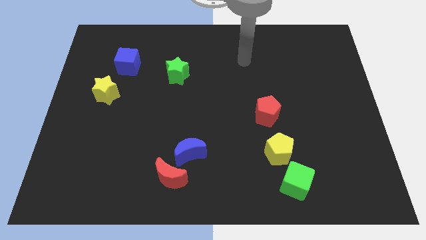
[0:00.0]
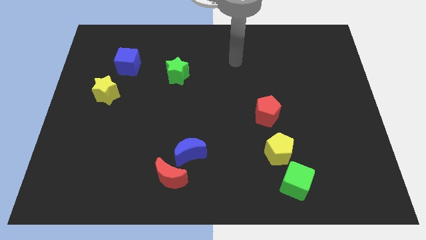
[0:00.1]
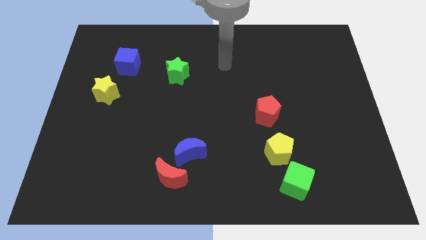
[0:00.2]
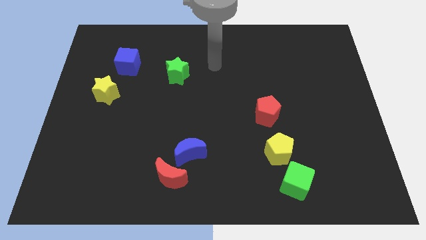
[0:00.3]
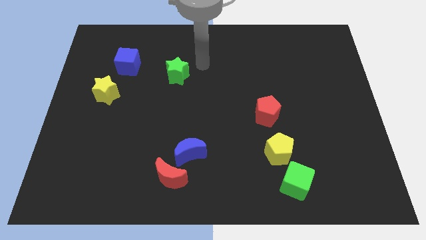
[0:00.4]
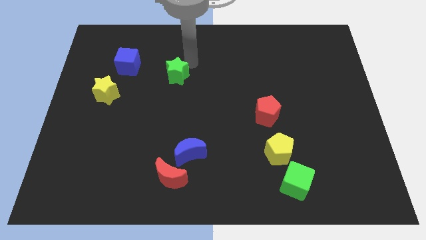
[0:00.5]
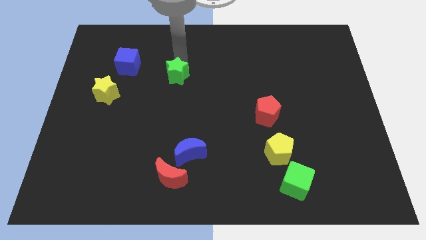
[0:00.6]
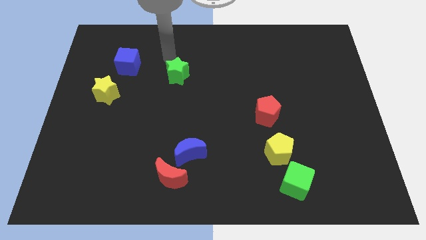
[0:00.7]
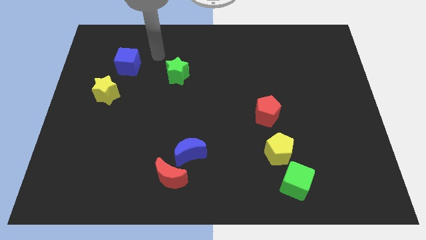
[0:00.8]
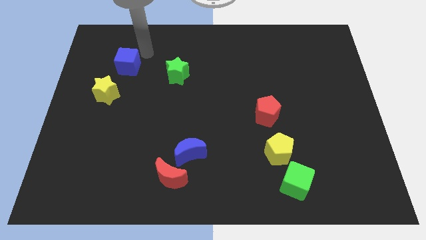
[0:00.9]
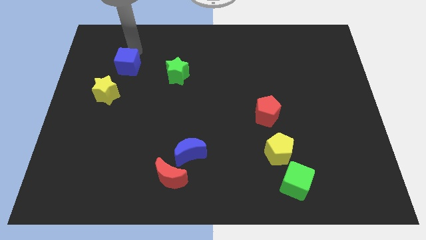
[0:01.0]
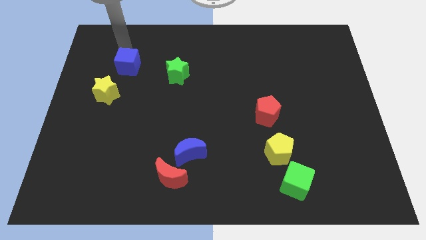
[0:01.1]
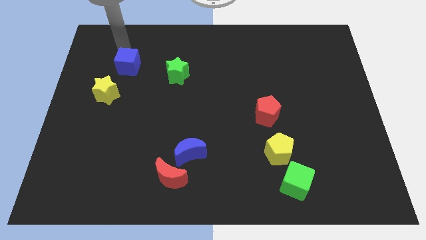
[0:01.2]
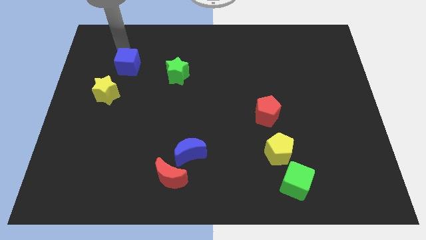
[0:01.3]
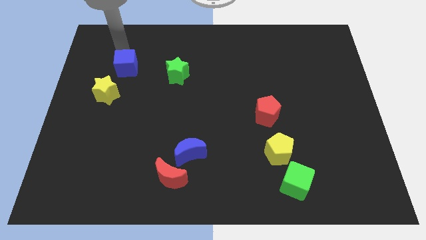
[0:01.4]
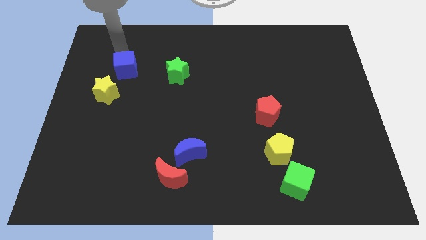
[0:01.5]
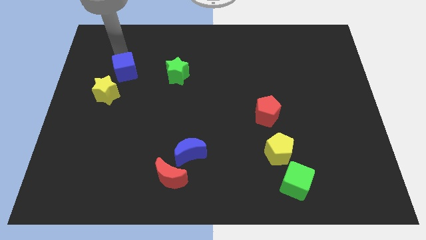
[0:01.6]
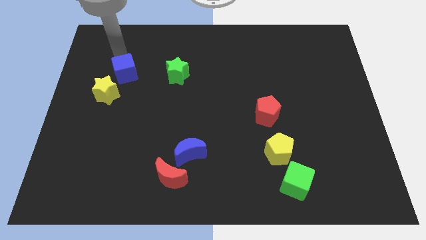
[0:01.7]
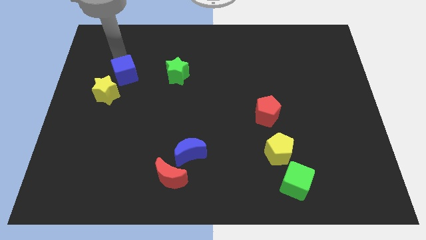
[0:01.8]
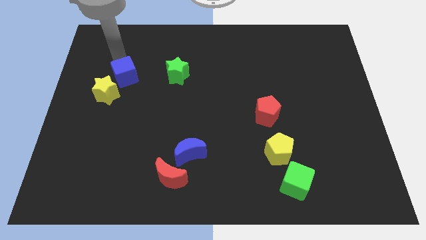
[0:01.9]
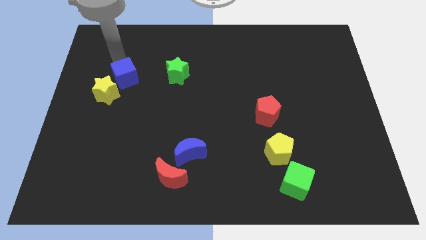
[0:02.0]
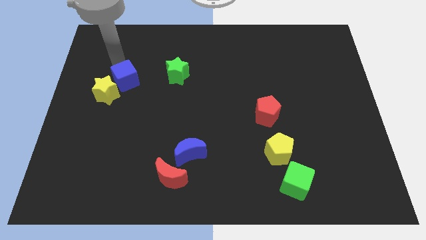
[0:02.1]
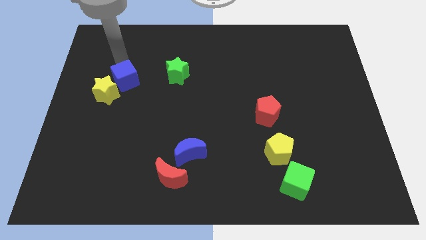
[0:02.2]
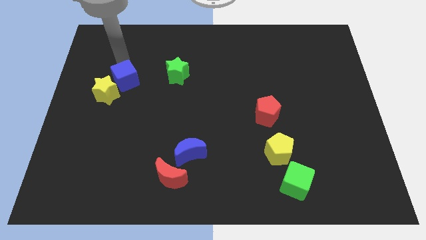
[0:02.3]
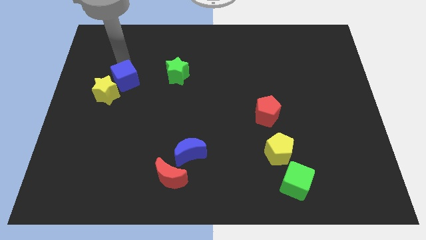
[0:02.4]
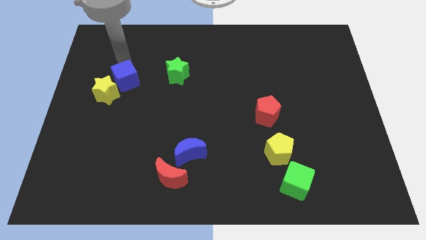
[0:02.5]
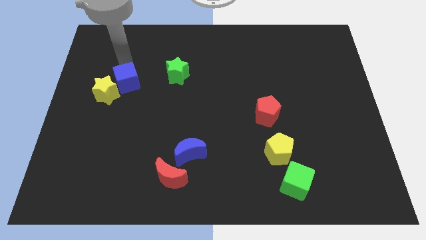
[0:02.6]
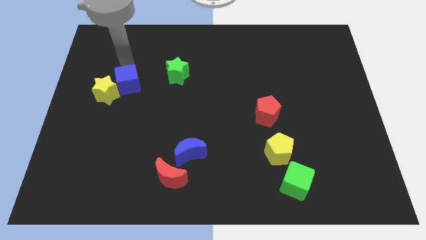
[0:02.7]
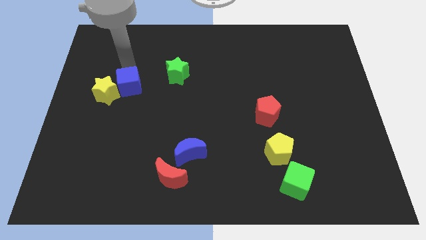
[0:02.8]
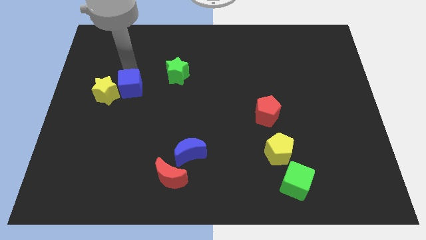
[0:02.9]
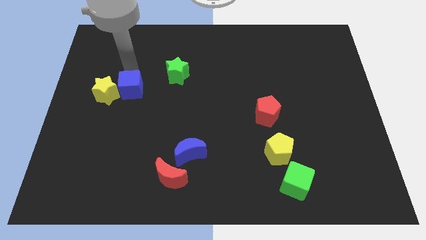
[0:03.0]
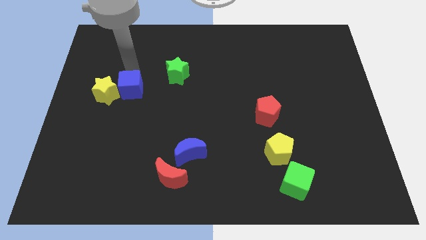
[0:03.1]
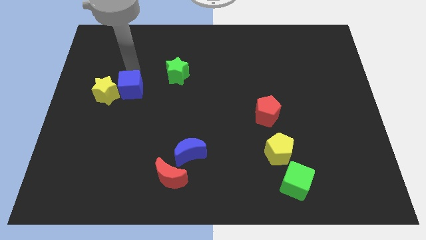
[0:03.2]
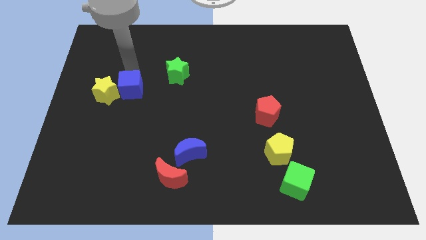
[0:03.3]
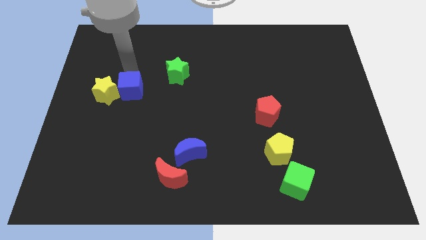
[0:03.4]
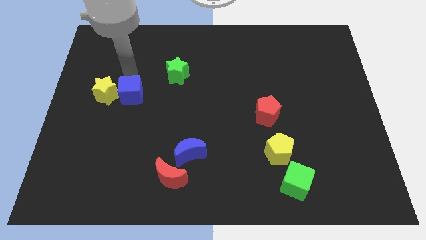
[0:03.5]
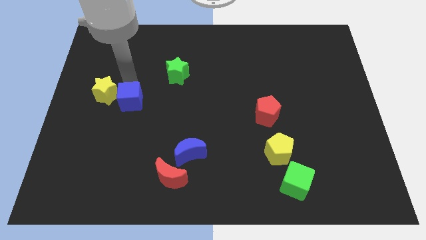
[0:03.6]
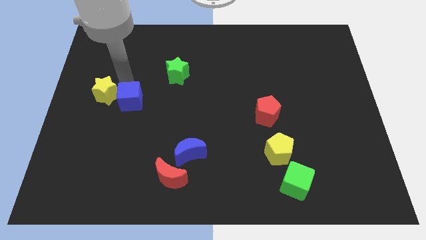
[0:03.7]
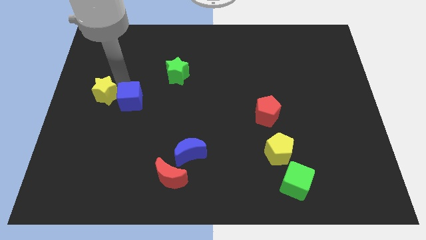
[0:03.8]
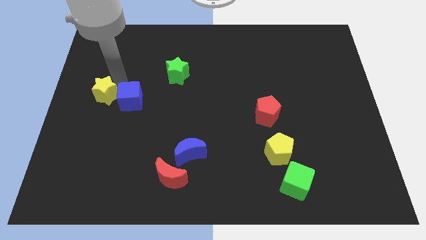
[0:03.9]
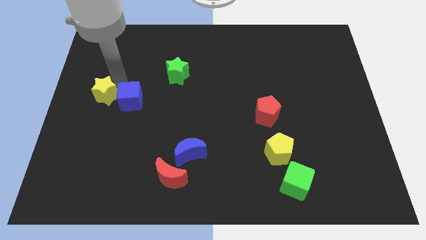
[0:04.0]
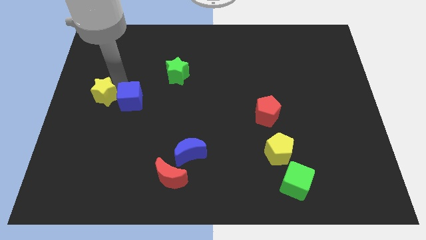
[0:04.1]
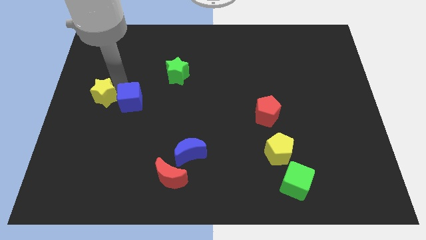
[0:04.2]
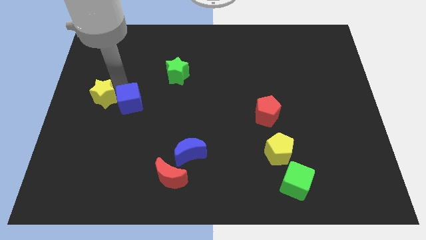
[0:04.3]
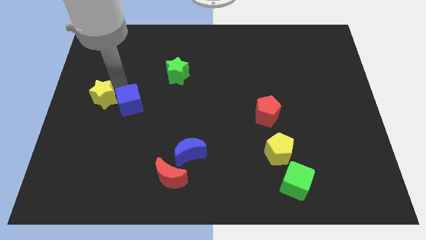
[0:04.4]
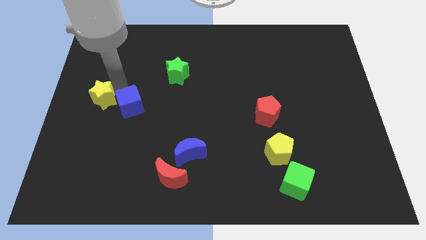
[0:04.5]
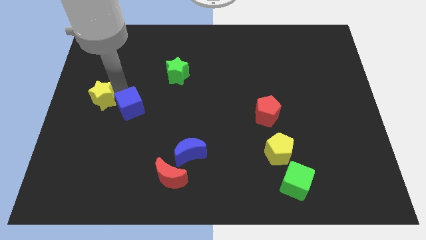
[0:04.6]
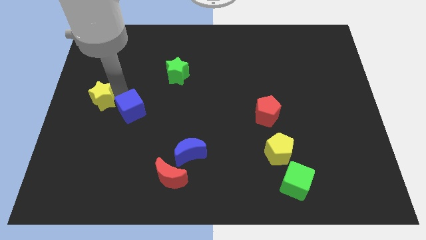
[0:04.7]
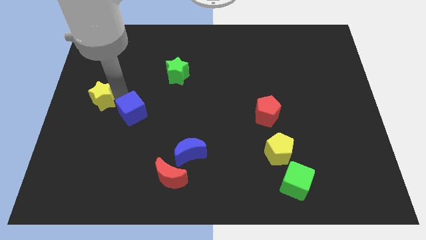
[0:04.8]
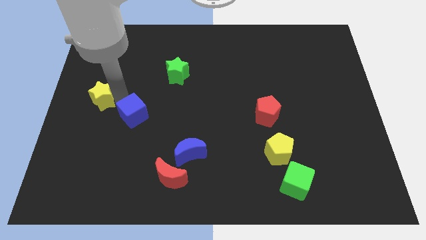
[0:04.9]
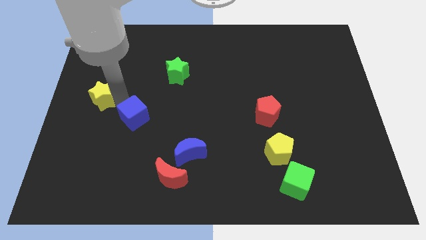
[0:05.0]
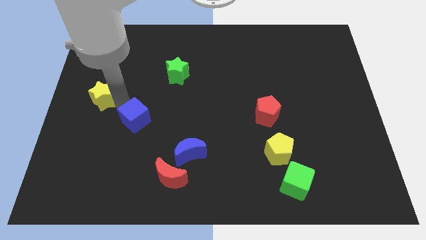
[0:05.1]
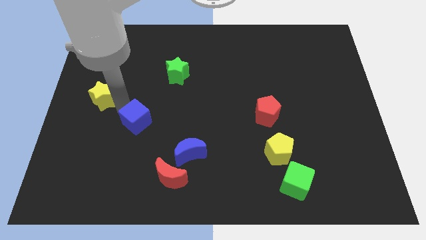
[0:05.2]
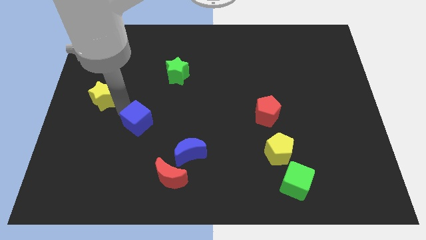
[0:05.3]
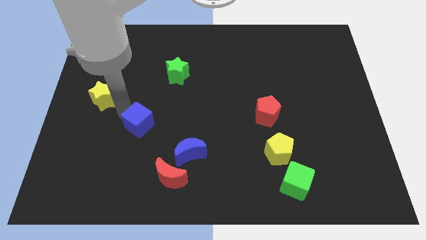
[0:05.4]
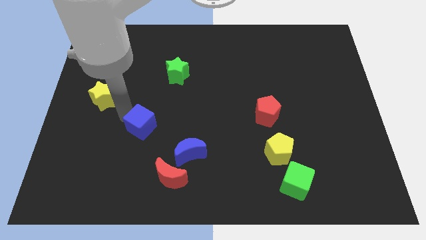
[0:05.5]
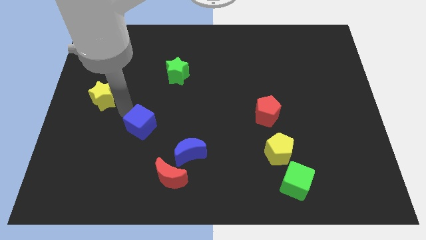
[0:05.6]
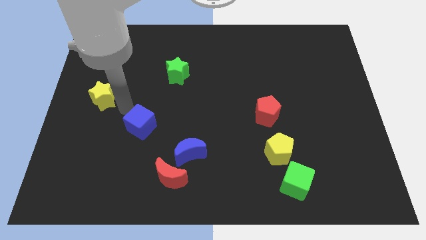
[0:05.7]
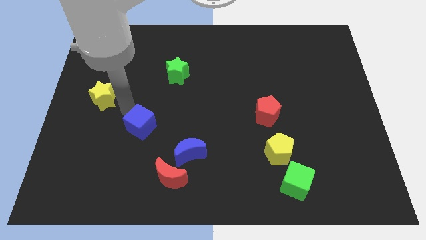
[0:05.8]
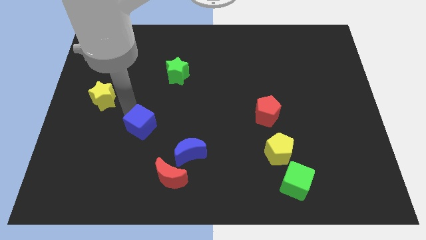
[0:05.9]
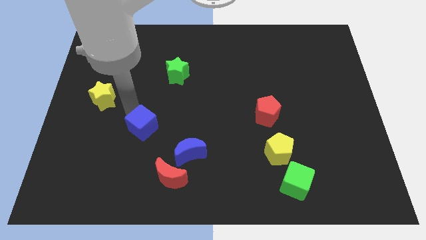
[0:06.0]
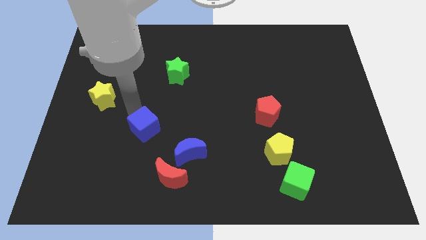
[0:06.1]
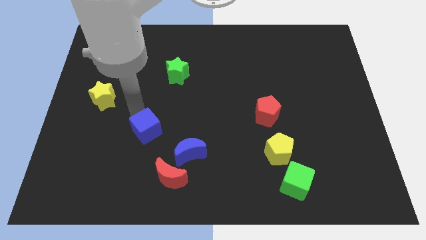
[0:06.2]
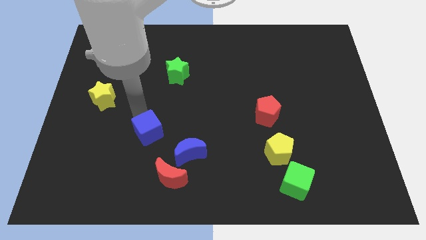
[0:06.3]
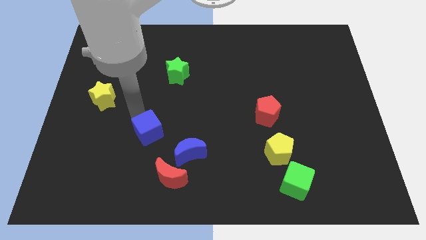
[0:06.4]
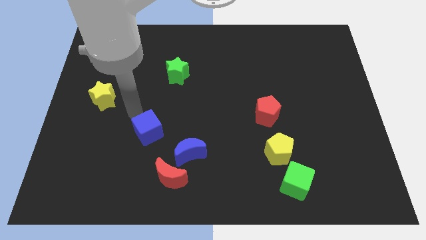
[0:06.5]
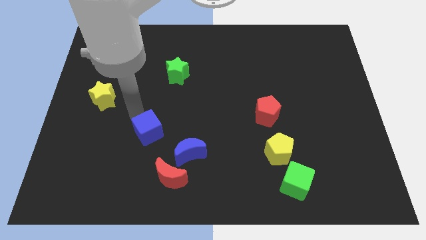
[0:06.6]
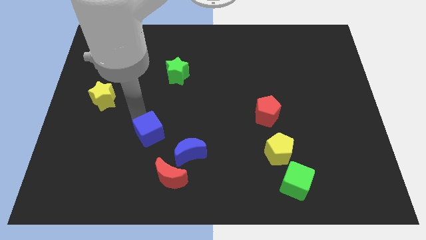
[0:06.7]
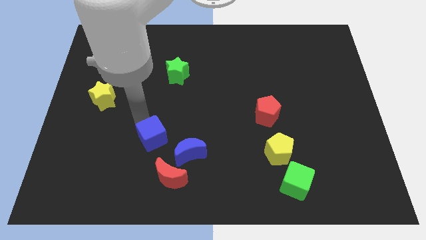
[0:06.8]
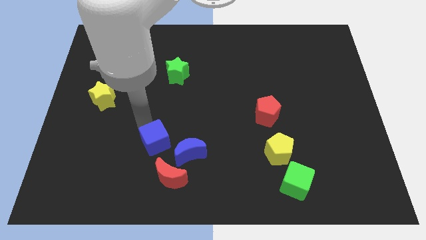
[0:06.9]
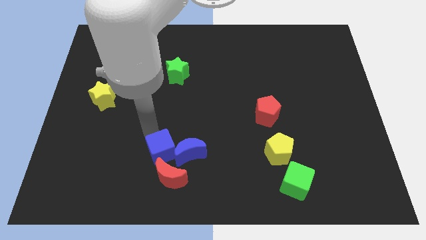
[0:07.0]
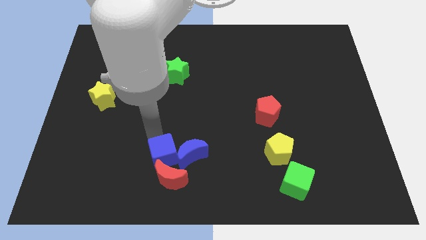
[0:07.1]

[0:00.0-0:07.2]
push the blue cube next to the red moon
